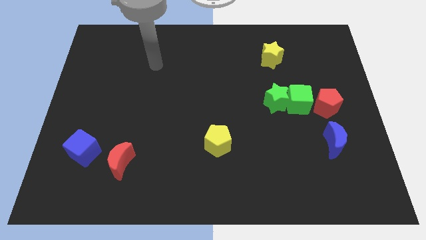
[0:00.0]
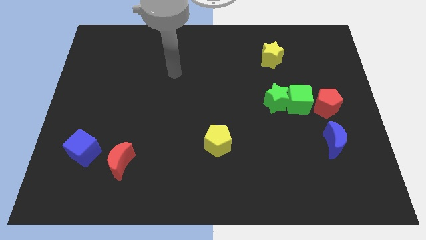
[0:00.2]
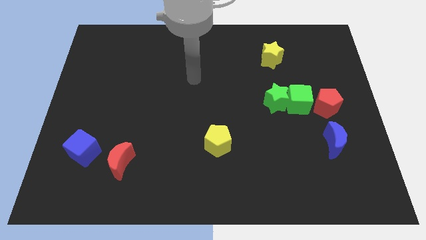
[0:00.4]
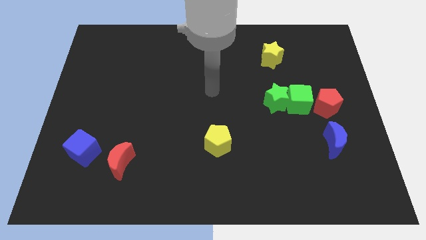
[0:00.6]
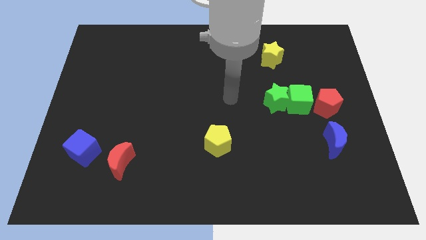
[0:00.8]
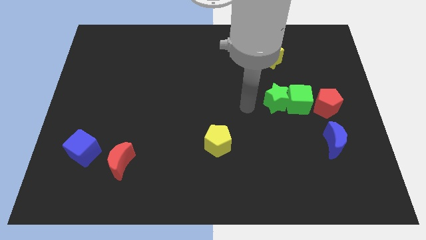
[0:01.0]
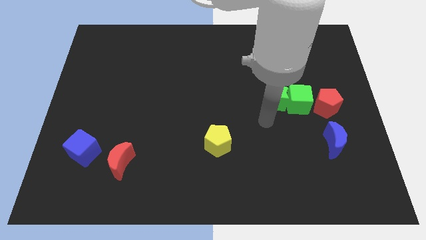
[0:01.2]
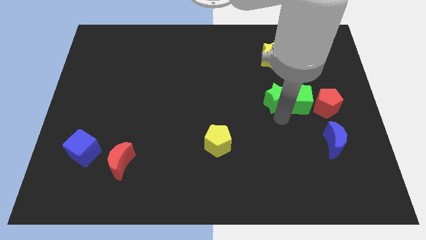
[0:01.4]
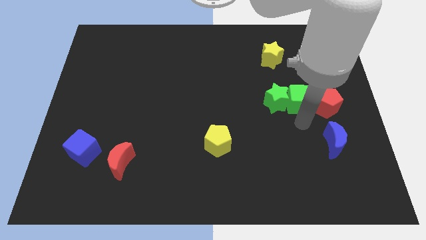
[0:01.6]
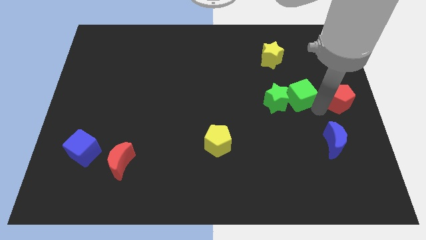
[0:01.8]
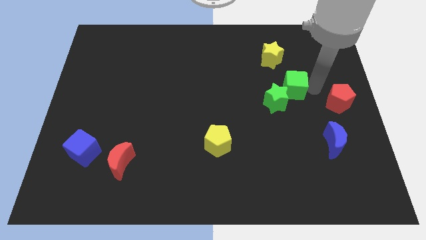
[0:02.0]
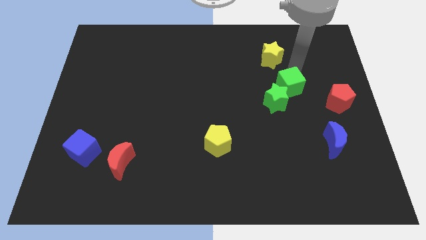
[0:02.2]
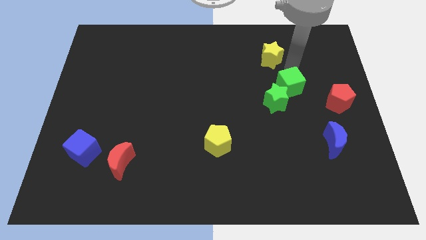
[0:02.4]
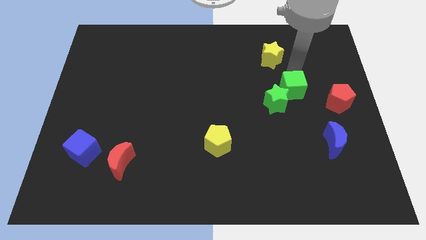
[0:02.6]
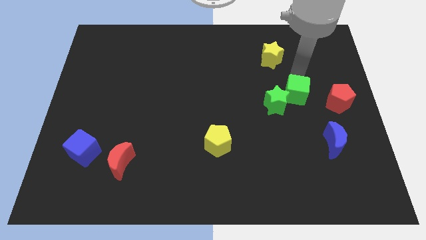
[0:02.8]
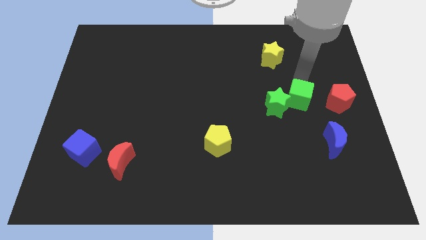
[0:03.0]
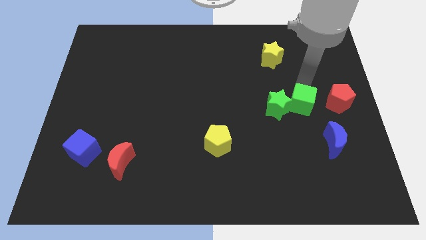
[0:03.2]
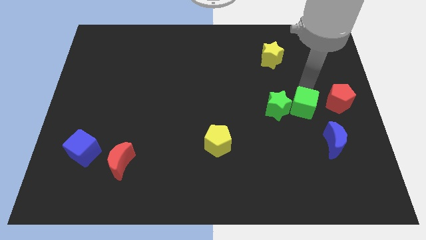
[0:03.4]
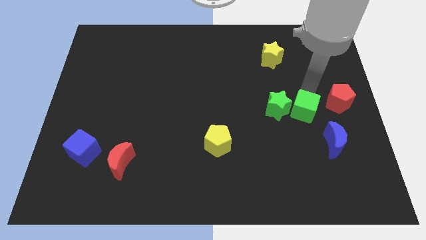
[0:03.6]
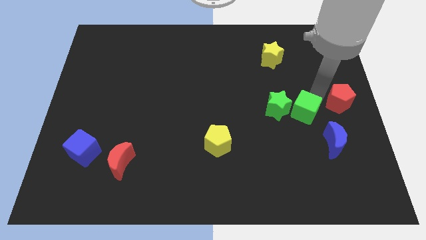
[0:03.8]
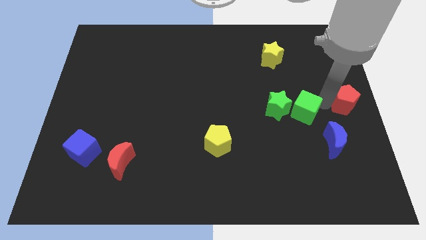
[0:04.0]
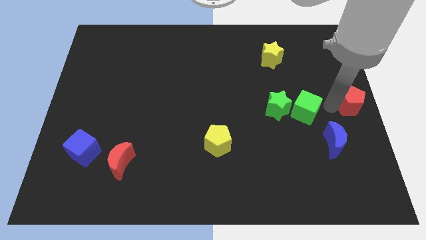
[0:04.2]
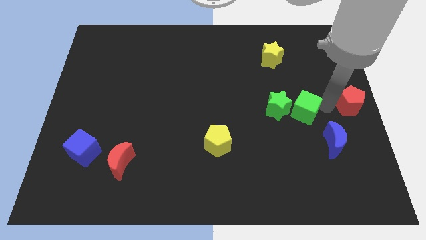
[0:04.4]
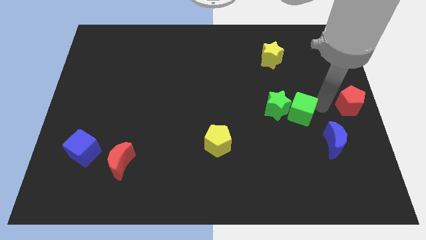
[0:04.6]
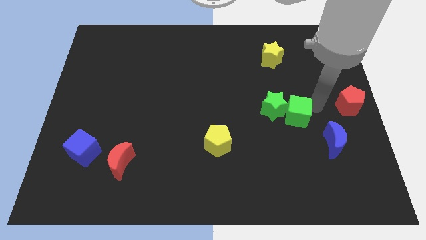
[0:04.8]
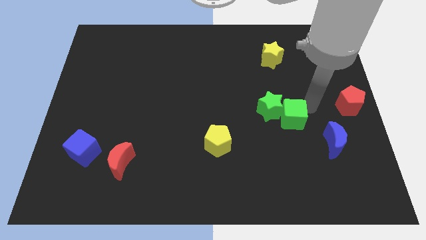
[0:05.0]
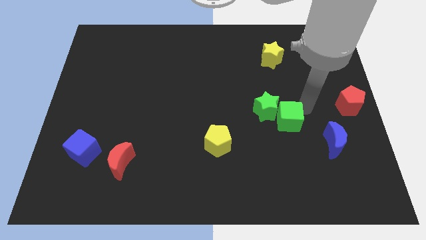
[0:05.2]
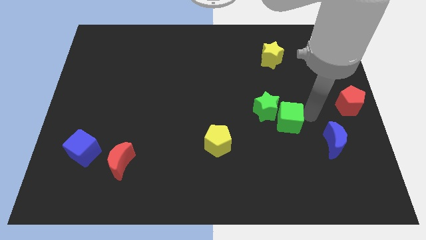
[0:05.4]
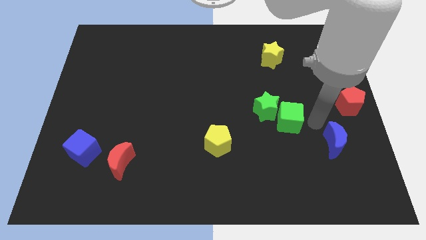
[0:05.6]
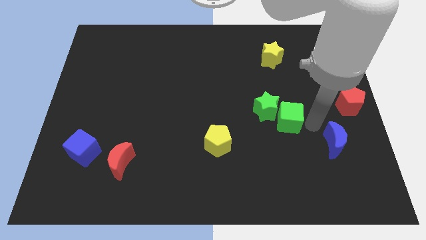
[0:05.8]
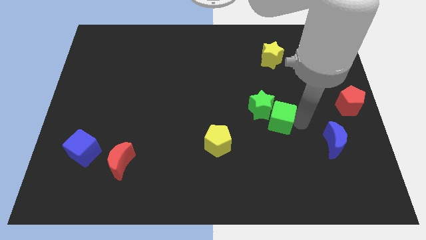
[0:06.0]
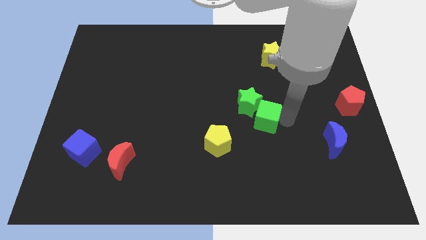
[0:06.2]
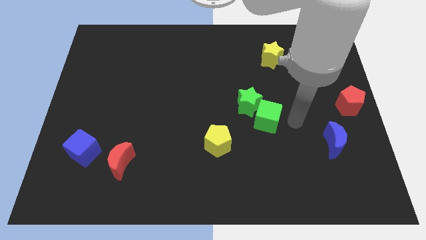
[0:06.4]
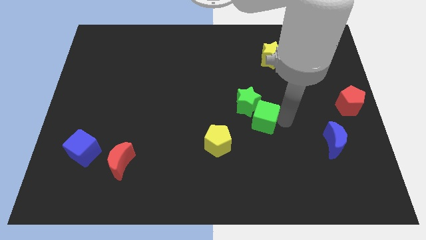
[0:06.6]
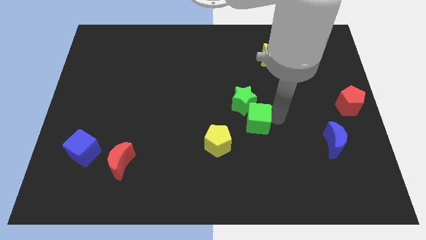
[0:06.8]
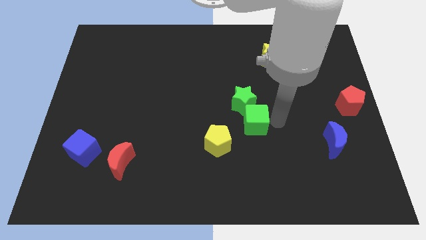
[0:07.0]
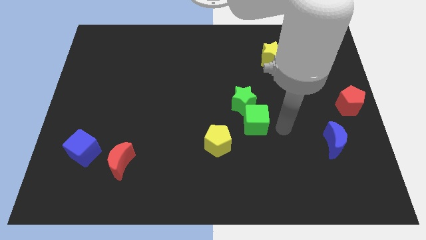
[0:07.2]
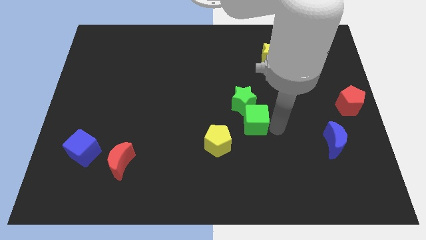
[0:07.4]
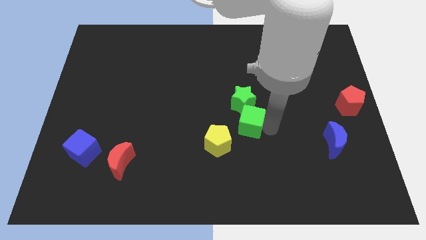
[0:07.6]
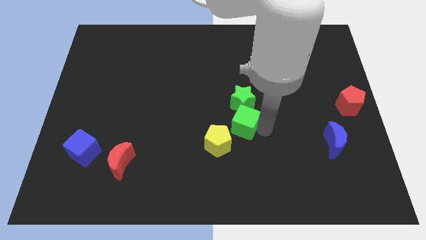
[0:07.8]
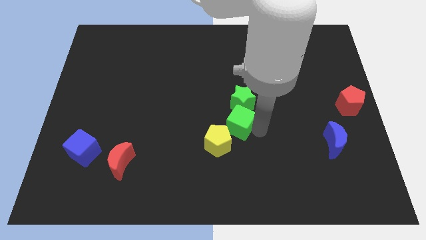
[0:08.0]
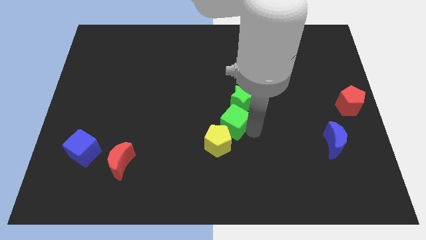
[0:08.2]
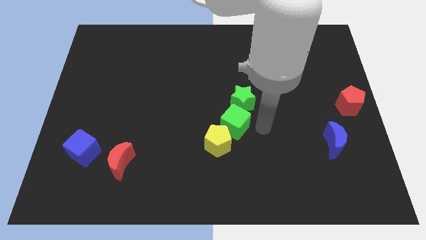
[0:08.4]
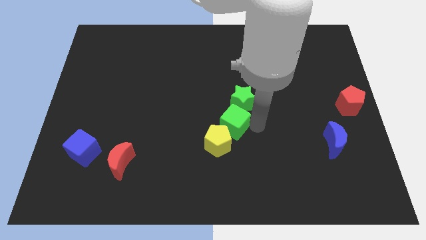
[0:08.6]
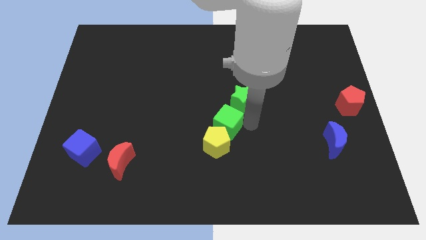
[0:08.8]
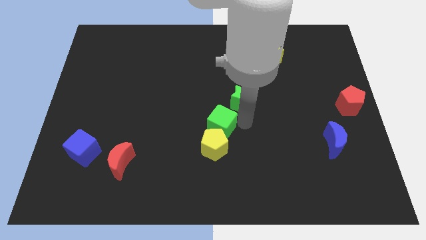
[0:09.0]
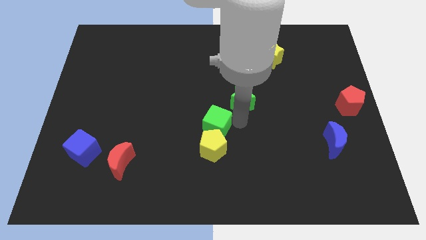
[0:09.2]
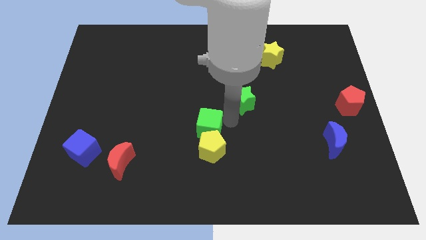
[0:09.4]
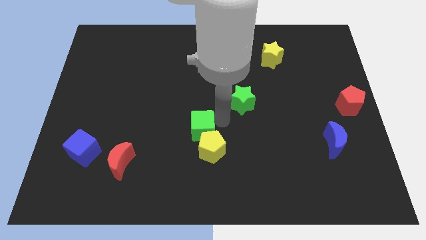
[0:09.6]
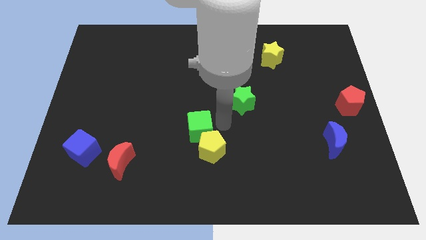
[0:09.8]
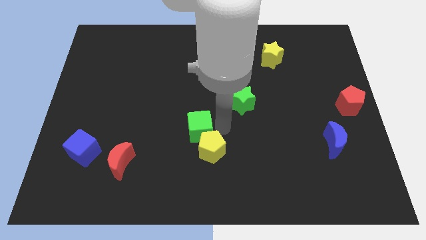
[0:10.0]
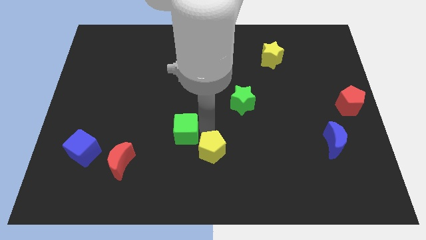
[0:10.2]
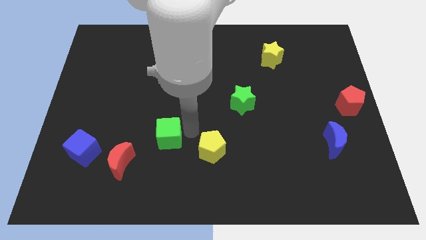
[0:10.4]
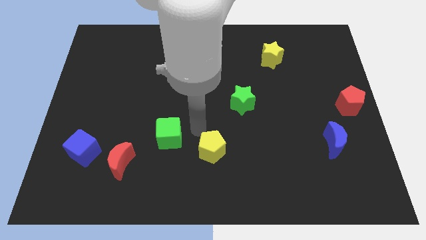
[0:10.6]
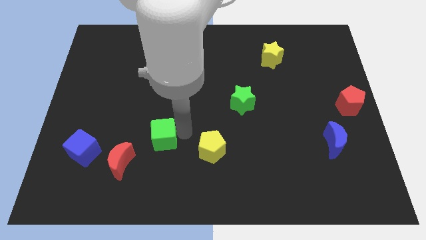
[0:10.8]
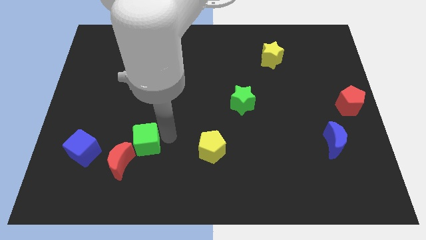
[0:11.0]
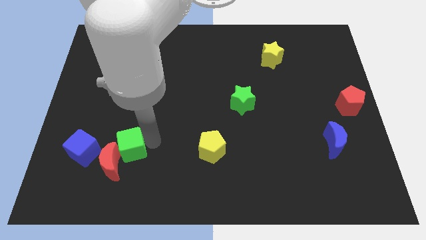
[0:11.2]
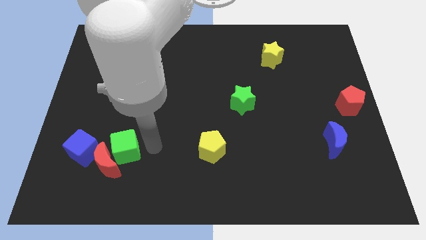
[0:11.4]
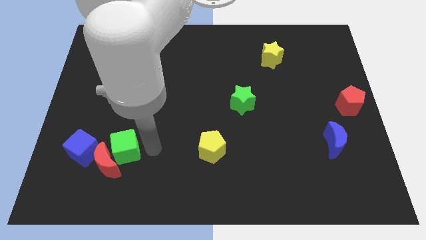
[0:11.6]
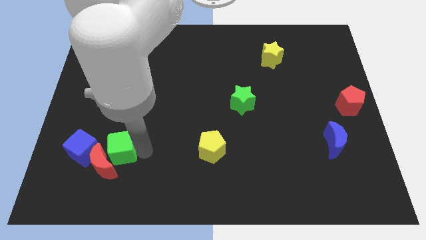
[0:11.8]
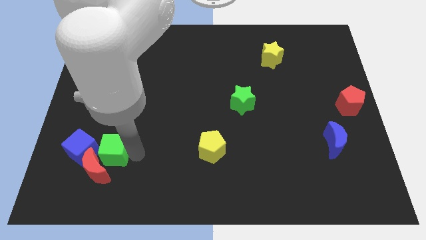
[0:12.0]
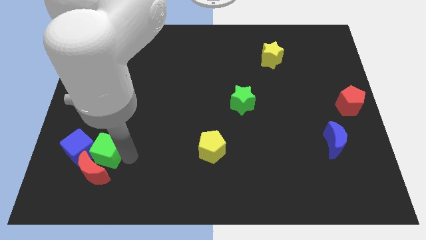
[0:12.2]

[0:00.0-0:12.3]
slide the green cube towards the blue cube
